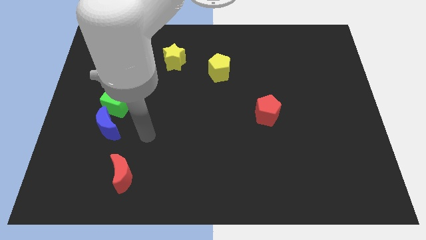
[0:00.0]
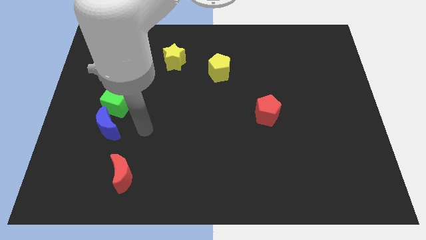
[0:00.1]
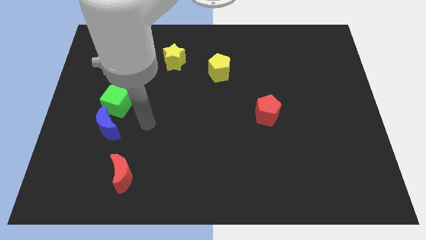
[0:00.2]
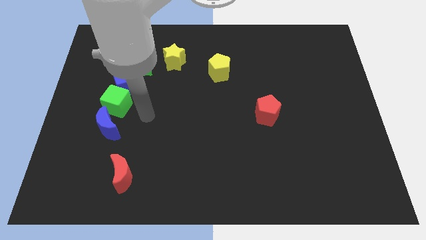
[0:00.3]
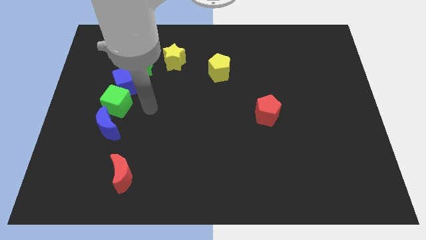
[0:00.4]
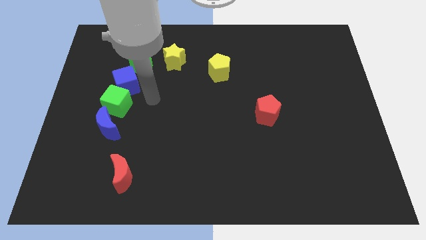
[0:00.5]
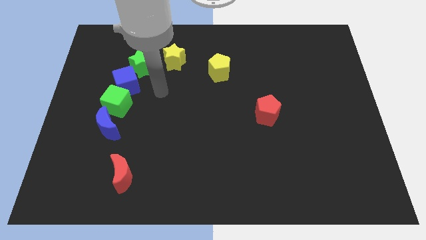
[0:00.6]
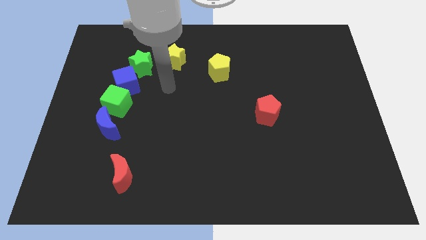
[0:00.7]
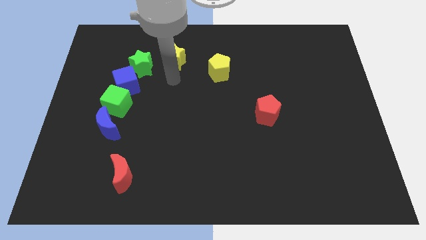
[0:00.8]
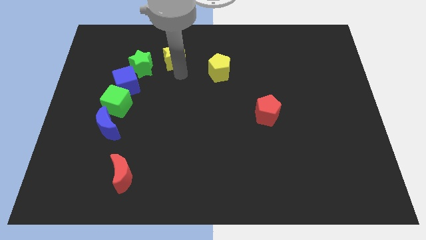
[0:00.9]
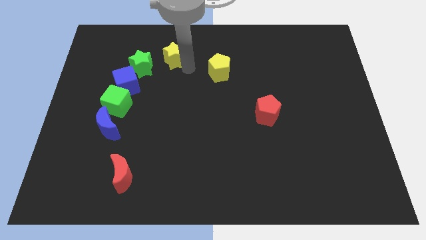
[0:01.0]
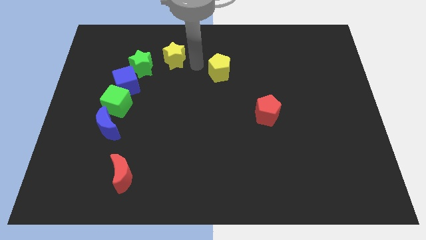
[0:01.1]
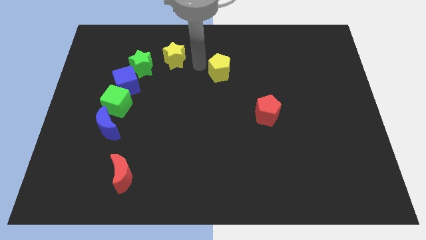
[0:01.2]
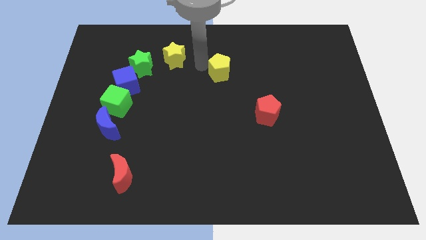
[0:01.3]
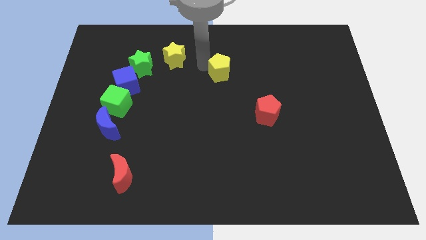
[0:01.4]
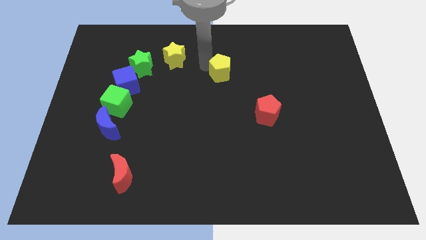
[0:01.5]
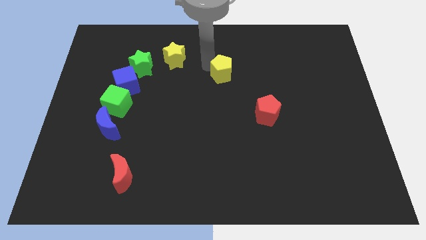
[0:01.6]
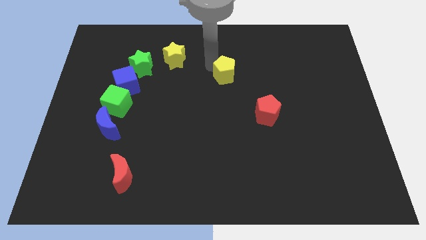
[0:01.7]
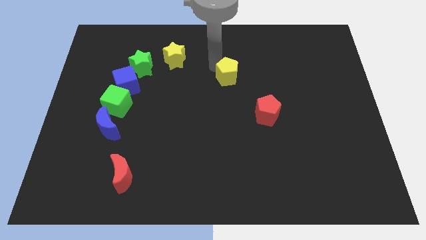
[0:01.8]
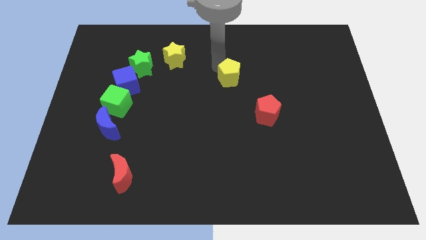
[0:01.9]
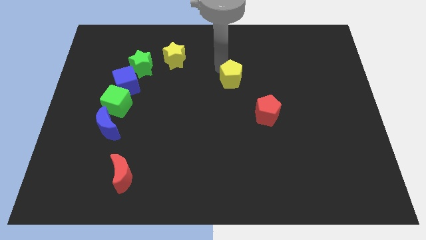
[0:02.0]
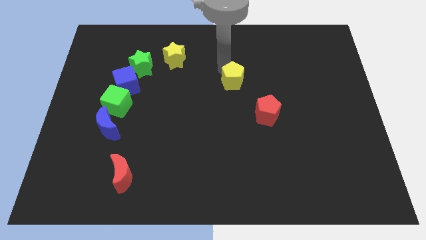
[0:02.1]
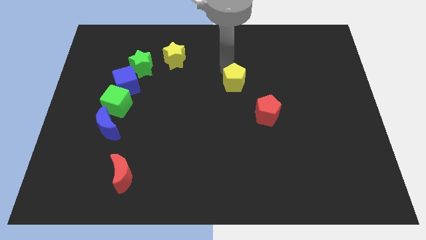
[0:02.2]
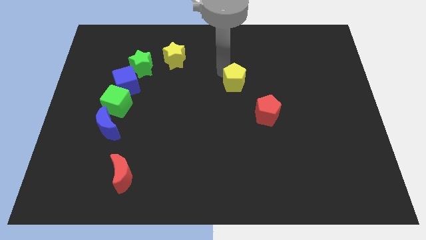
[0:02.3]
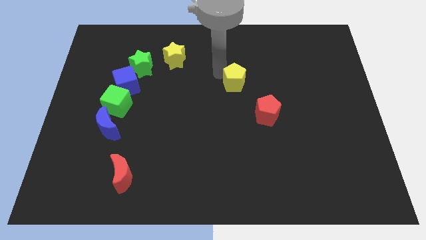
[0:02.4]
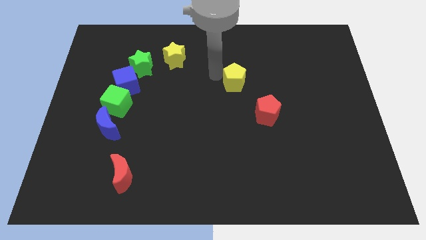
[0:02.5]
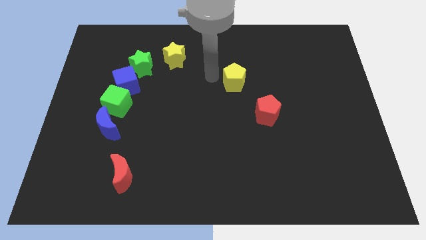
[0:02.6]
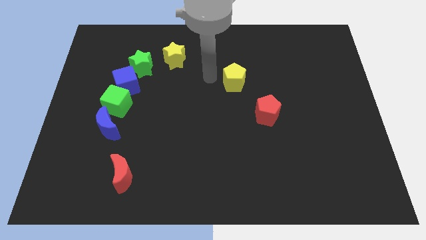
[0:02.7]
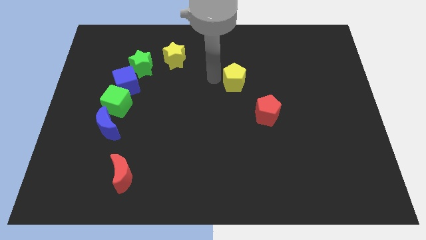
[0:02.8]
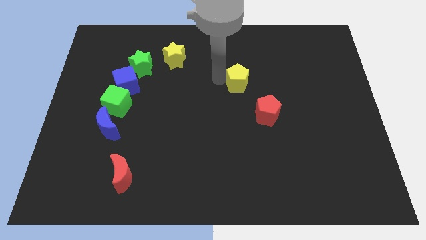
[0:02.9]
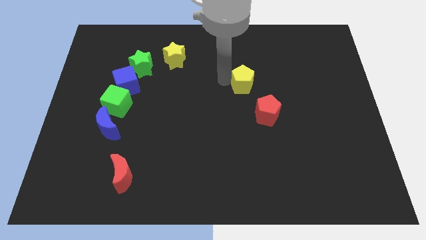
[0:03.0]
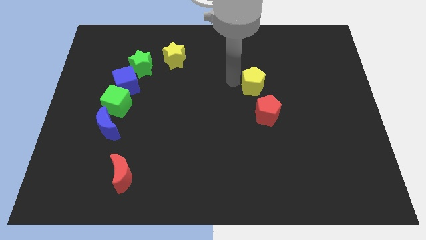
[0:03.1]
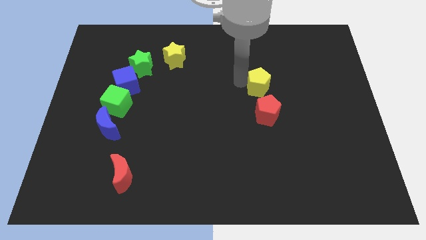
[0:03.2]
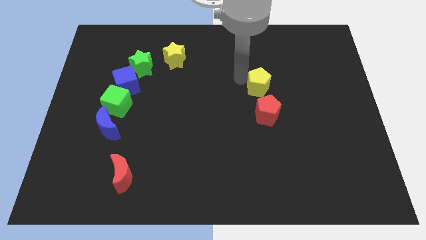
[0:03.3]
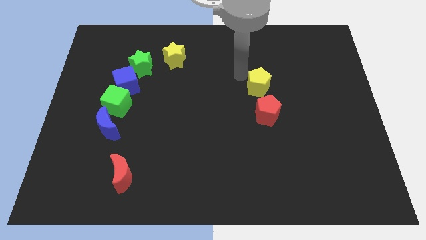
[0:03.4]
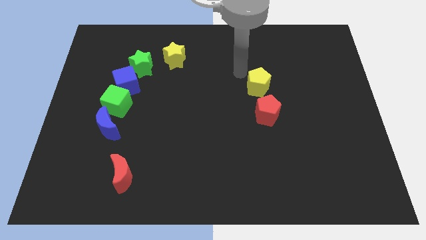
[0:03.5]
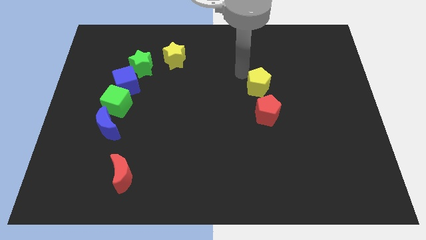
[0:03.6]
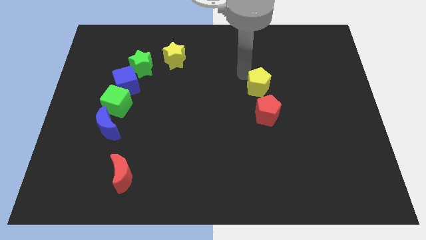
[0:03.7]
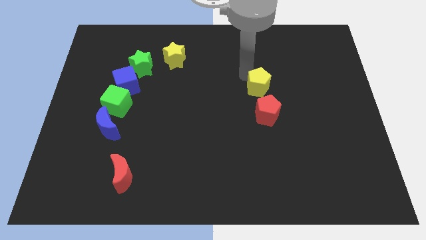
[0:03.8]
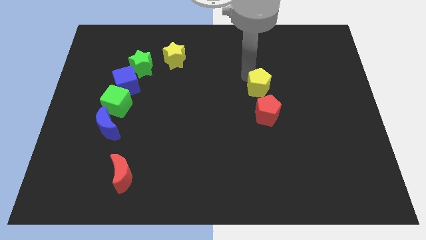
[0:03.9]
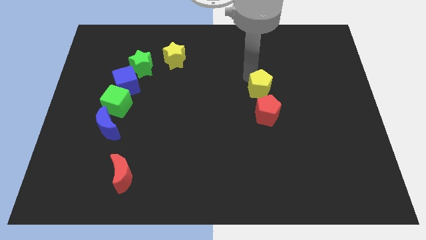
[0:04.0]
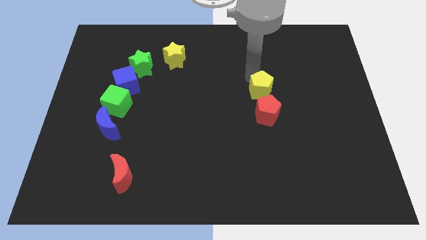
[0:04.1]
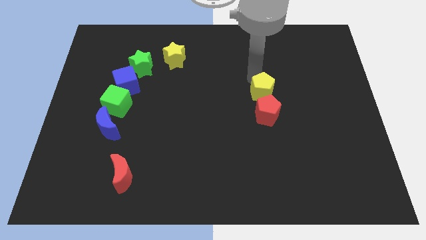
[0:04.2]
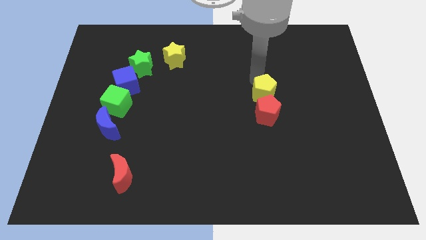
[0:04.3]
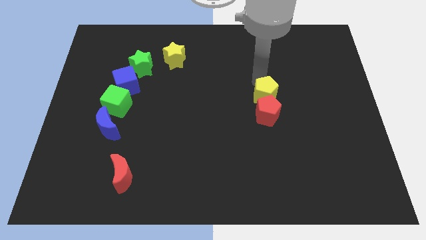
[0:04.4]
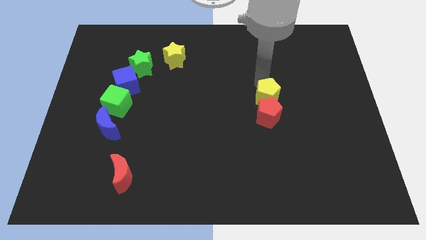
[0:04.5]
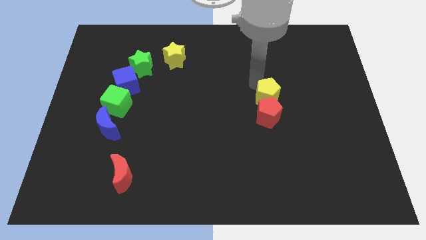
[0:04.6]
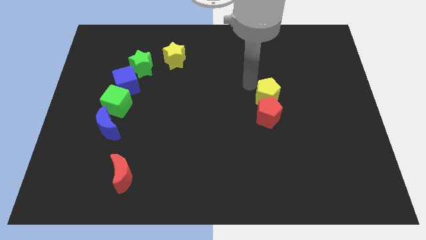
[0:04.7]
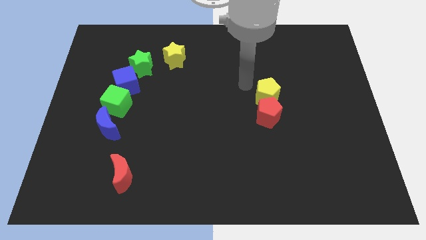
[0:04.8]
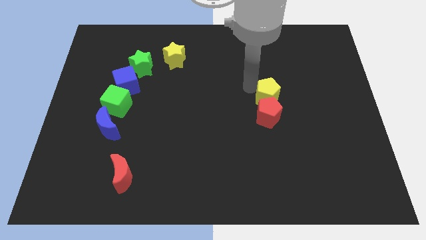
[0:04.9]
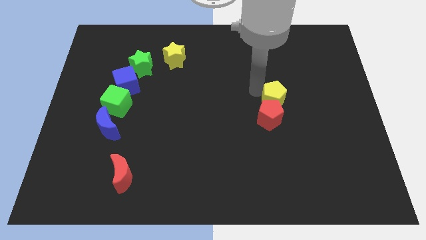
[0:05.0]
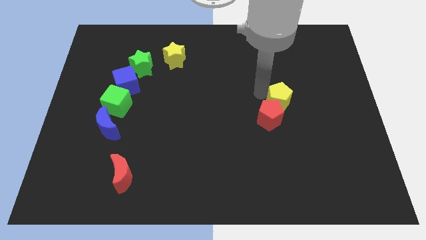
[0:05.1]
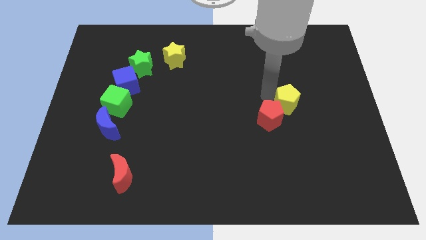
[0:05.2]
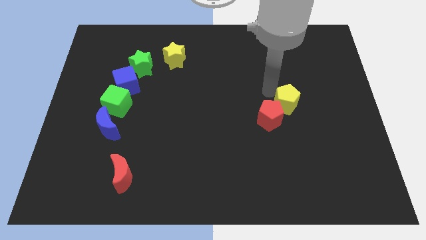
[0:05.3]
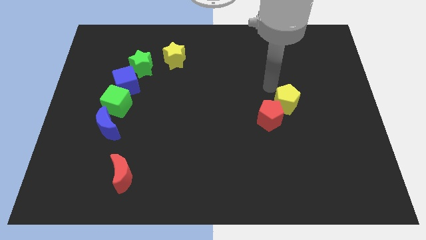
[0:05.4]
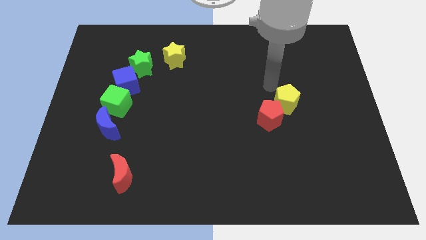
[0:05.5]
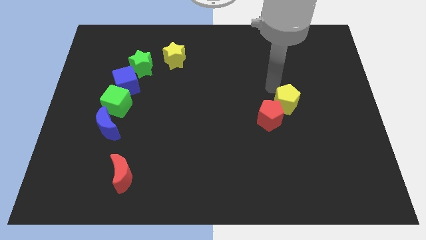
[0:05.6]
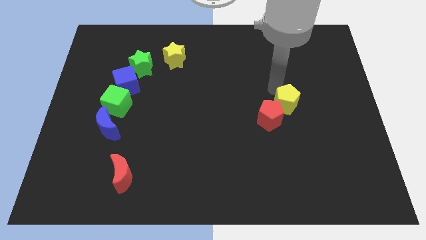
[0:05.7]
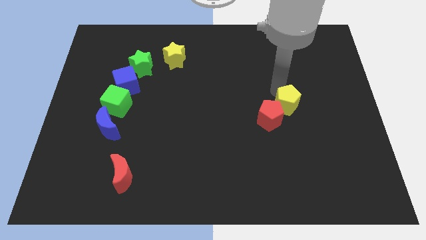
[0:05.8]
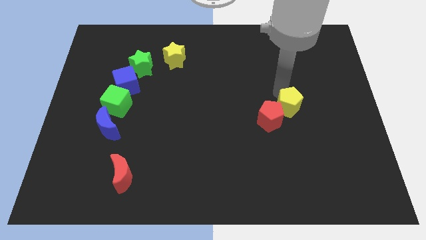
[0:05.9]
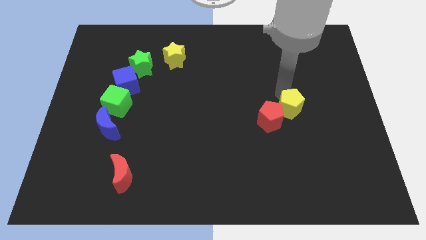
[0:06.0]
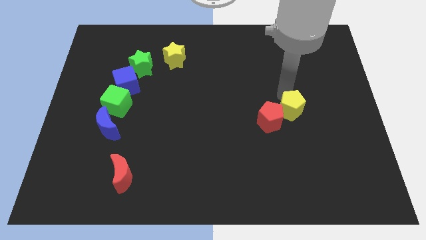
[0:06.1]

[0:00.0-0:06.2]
move the yellow pentagon down and to the right

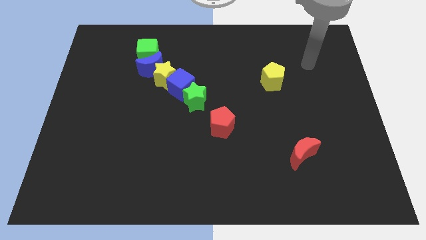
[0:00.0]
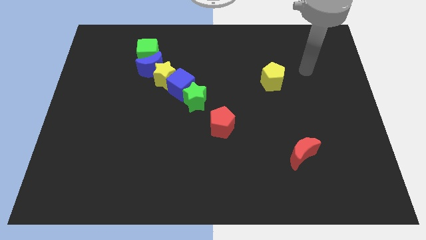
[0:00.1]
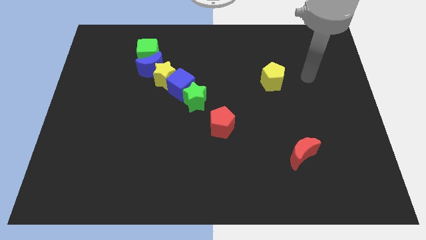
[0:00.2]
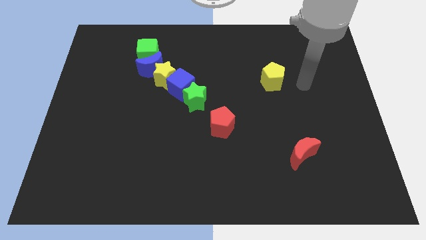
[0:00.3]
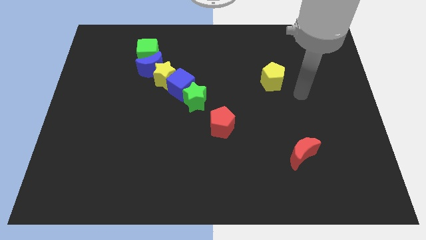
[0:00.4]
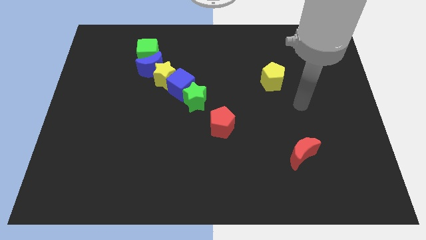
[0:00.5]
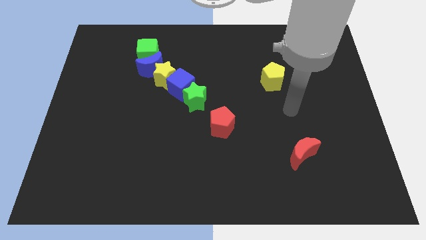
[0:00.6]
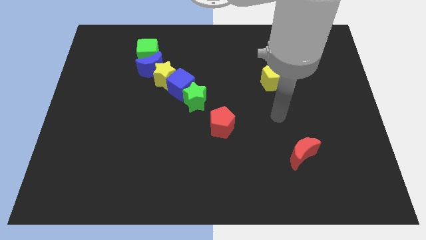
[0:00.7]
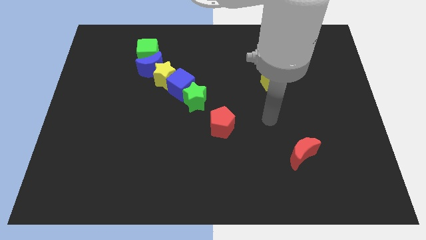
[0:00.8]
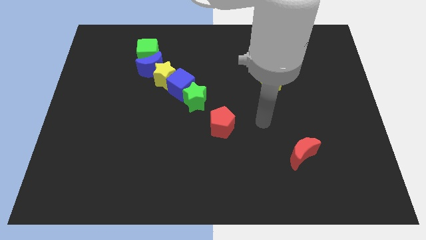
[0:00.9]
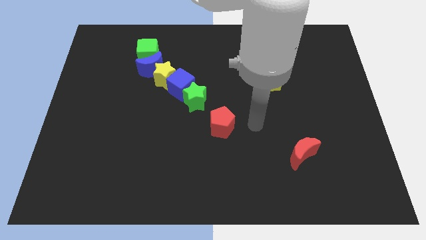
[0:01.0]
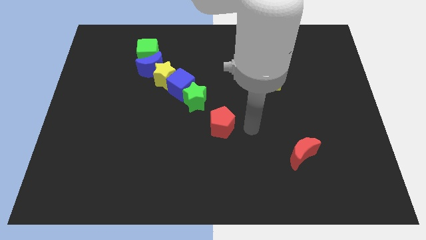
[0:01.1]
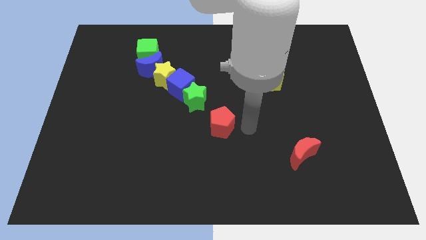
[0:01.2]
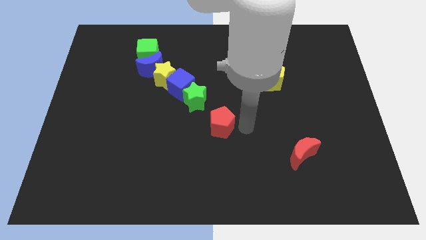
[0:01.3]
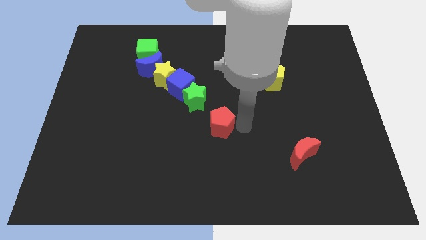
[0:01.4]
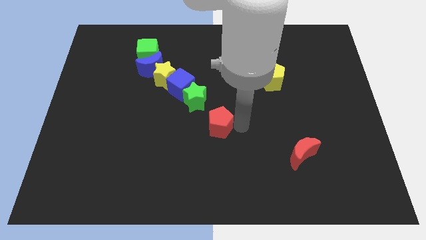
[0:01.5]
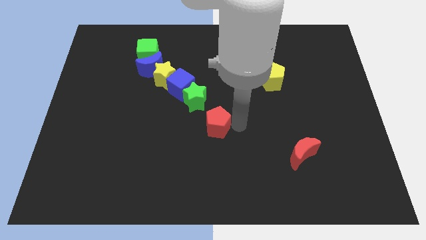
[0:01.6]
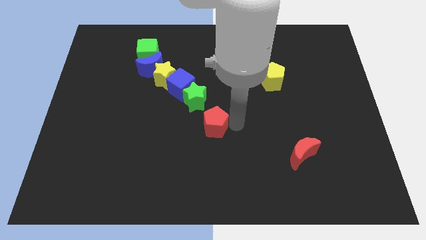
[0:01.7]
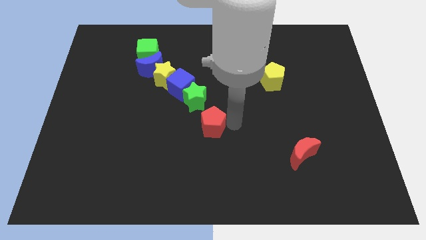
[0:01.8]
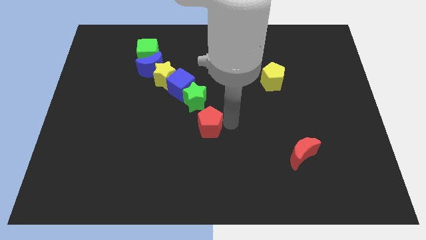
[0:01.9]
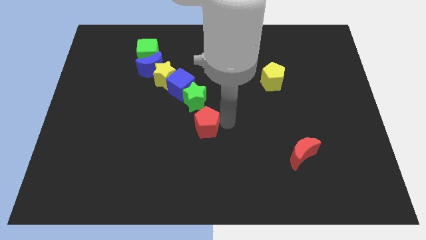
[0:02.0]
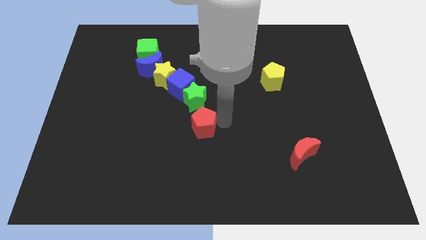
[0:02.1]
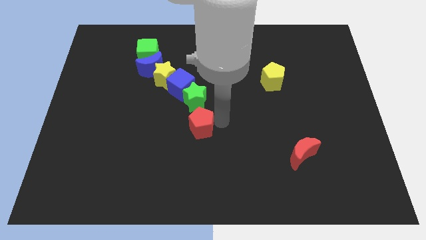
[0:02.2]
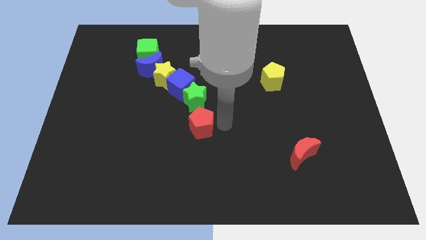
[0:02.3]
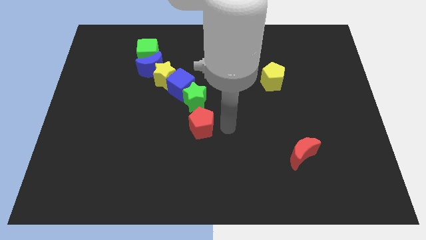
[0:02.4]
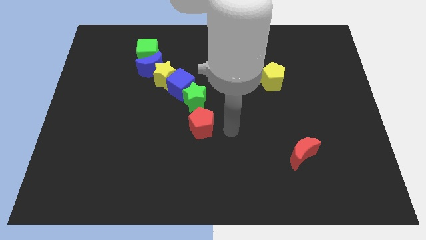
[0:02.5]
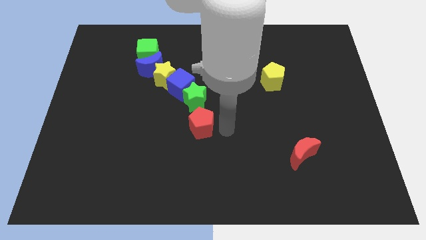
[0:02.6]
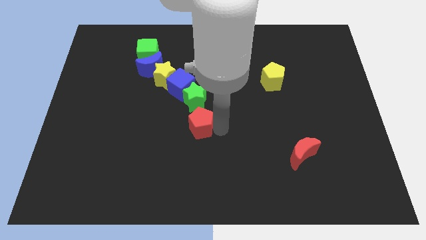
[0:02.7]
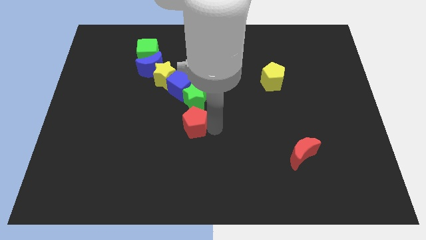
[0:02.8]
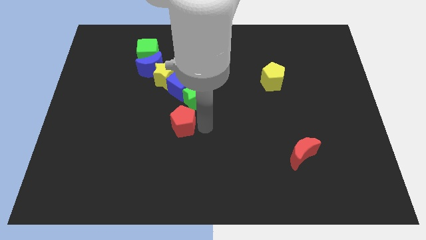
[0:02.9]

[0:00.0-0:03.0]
slide the red pentagon a bit to the left
